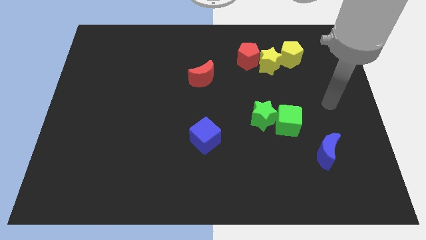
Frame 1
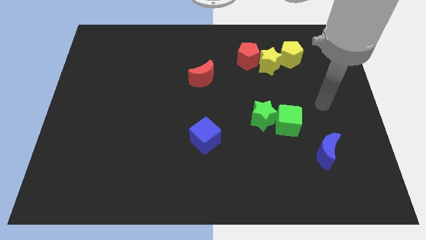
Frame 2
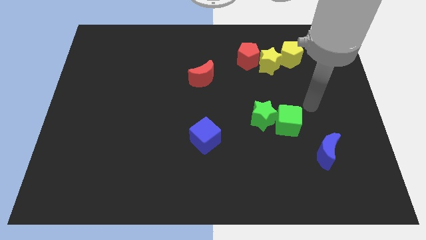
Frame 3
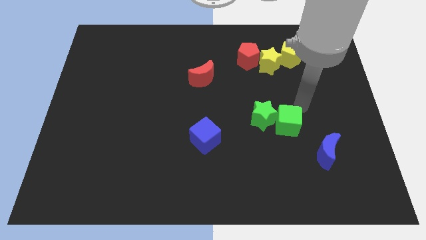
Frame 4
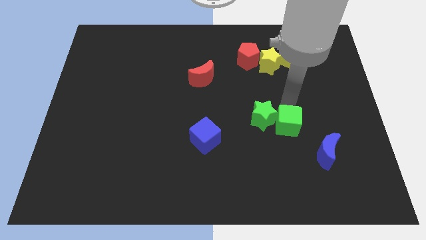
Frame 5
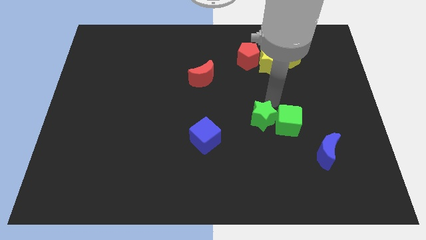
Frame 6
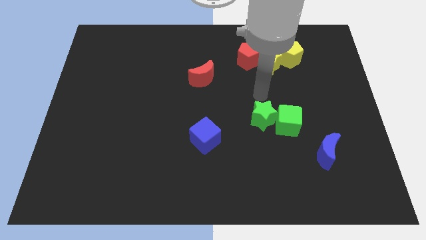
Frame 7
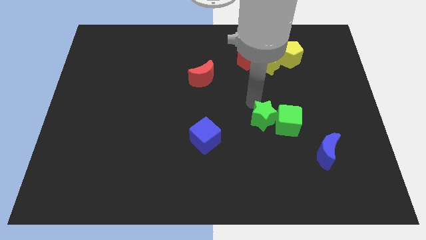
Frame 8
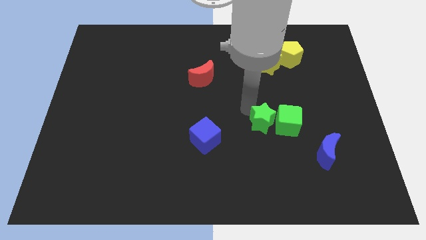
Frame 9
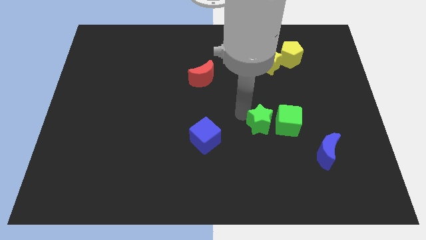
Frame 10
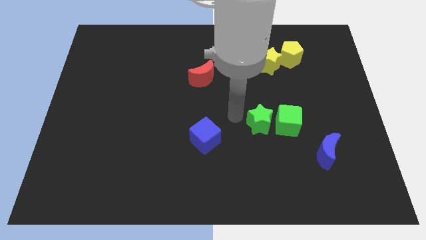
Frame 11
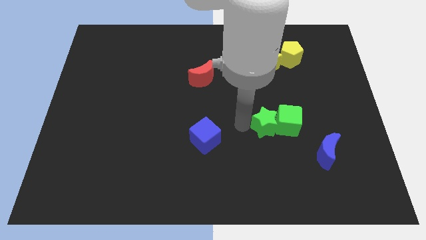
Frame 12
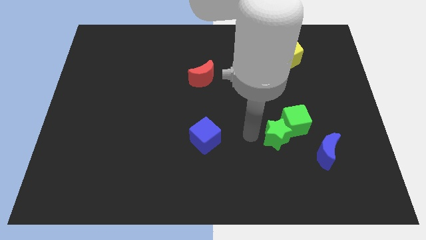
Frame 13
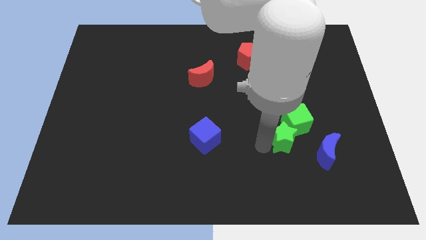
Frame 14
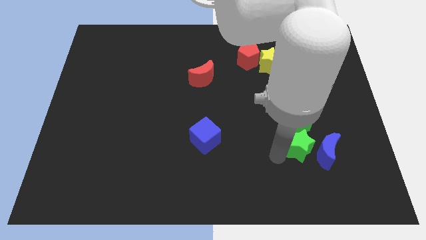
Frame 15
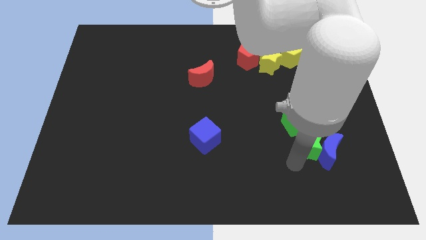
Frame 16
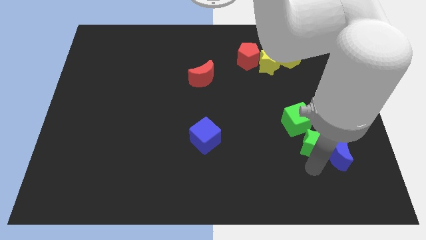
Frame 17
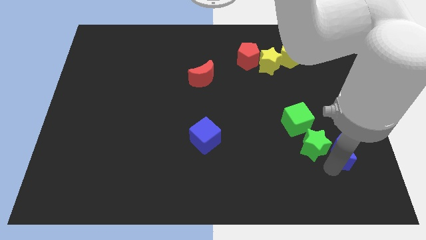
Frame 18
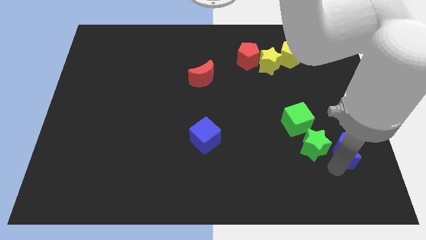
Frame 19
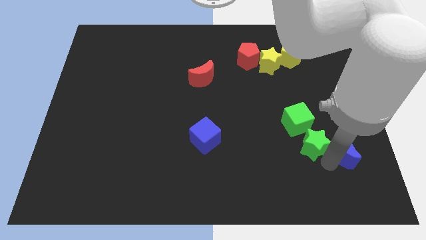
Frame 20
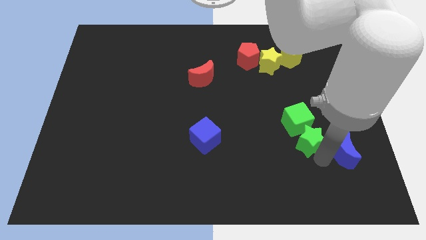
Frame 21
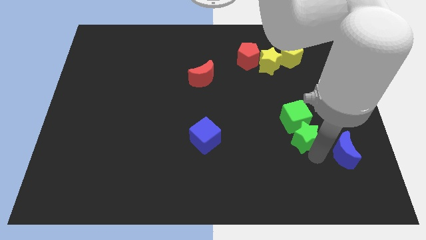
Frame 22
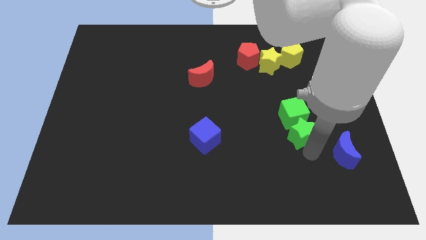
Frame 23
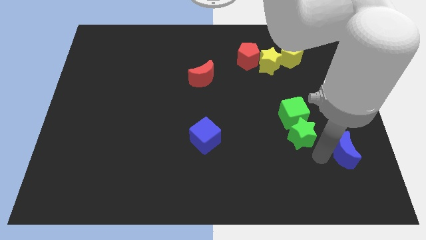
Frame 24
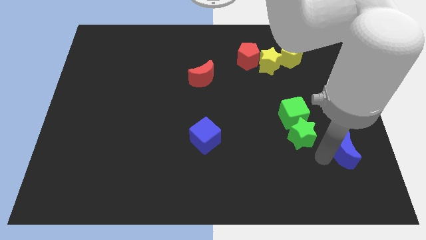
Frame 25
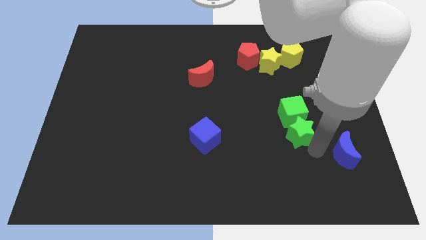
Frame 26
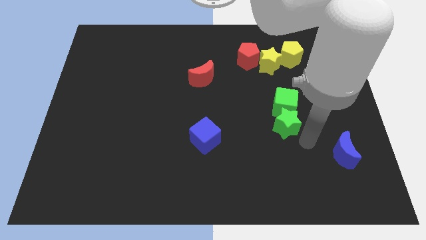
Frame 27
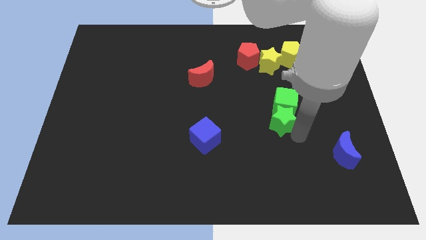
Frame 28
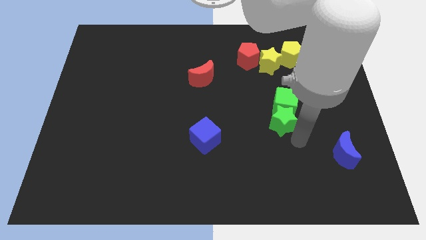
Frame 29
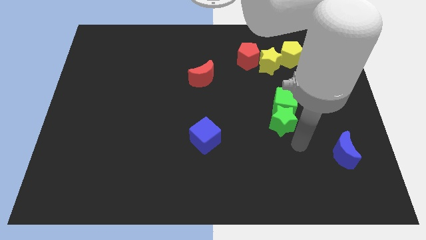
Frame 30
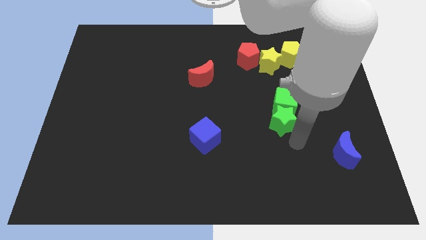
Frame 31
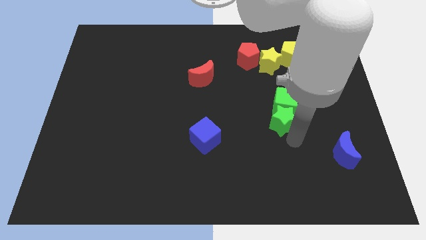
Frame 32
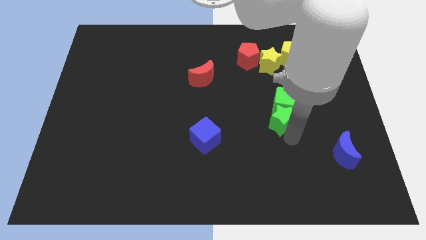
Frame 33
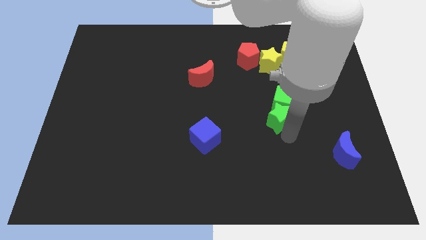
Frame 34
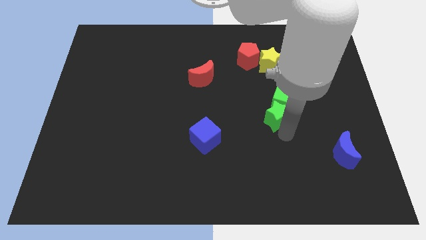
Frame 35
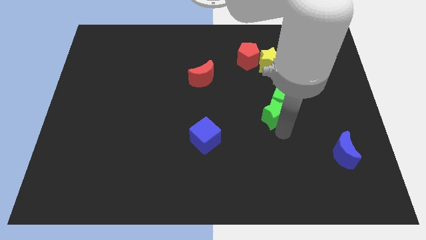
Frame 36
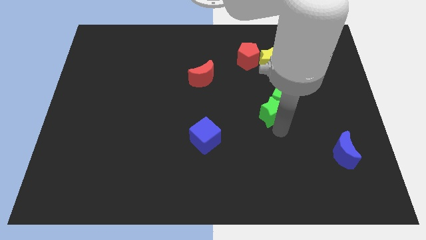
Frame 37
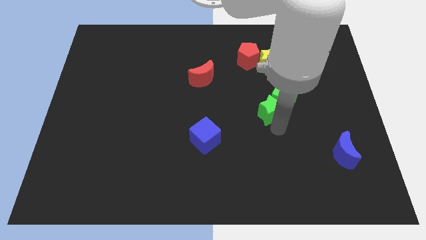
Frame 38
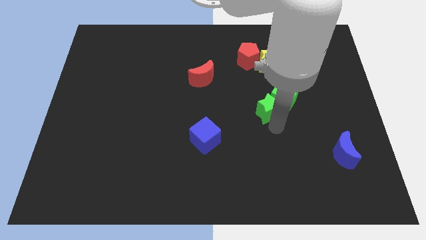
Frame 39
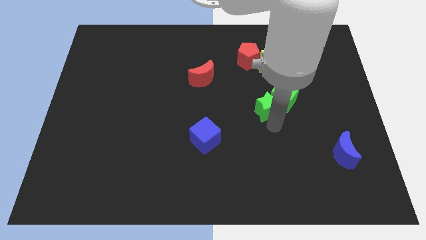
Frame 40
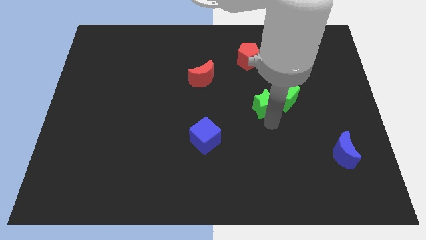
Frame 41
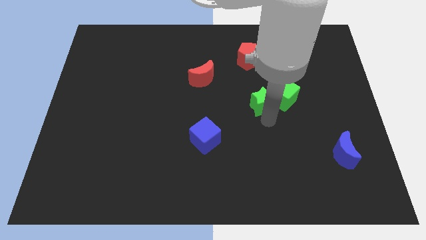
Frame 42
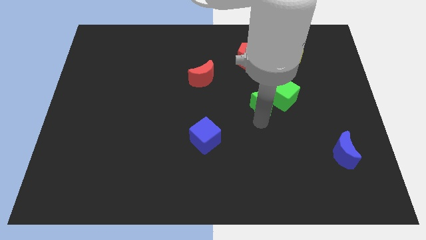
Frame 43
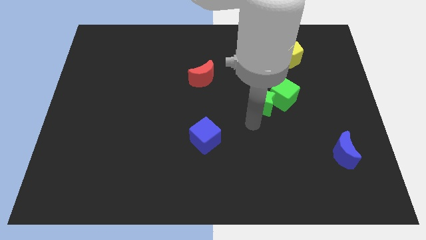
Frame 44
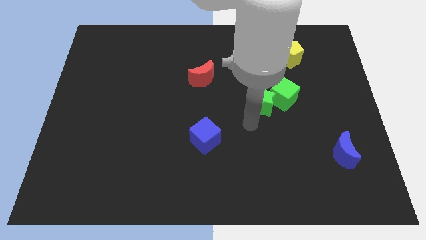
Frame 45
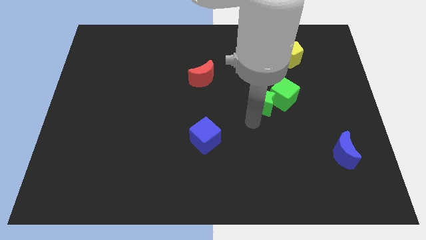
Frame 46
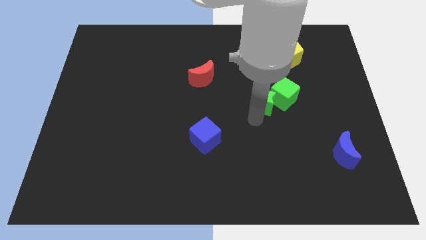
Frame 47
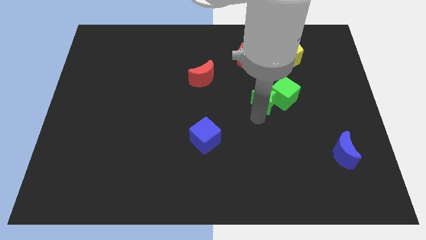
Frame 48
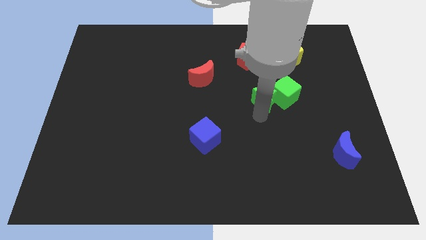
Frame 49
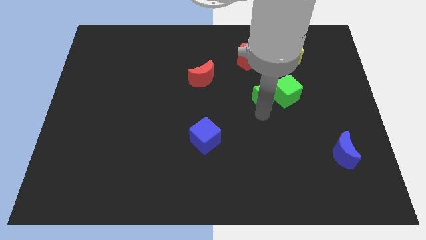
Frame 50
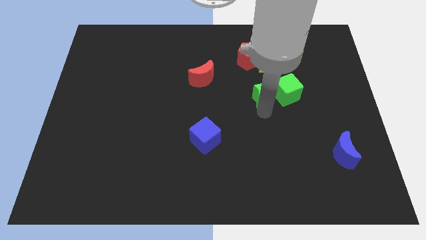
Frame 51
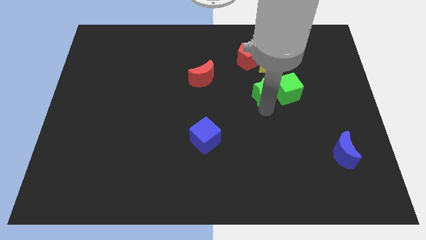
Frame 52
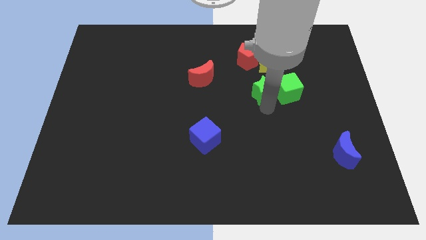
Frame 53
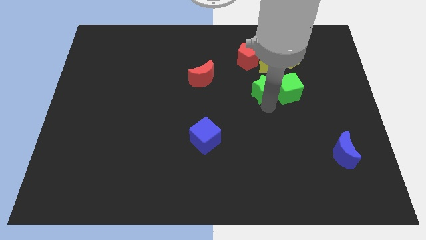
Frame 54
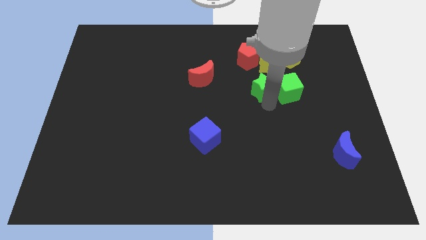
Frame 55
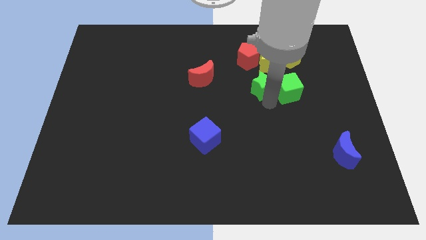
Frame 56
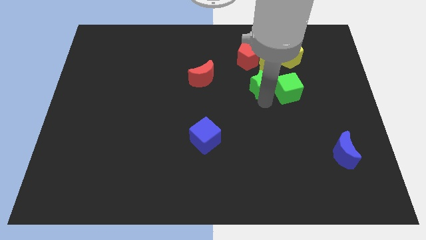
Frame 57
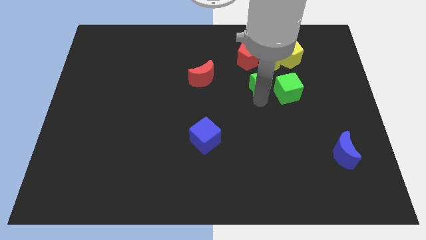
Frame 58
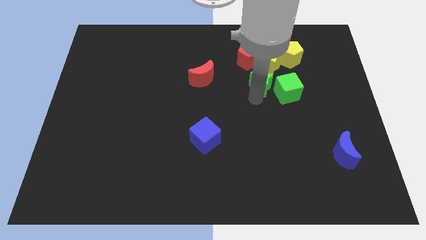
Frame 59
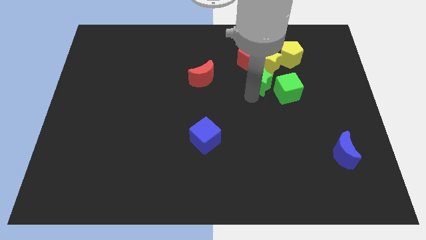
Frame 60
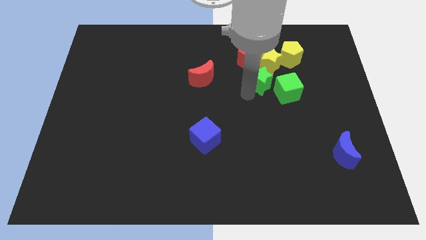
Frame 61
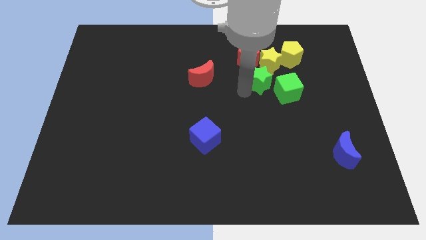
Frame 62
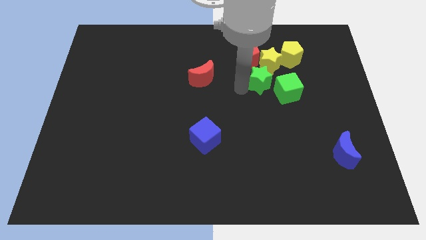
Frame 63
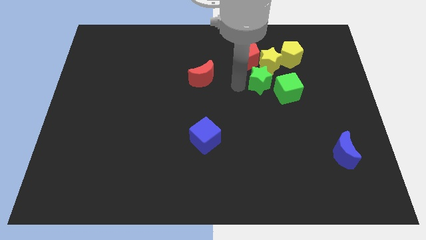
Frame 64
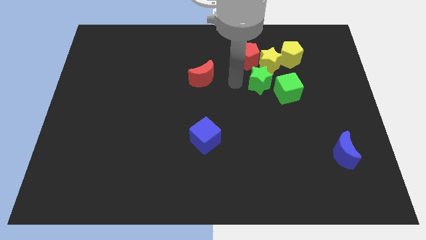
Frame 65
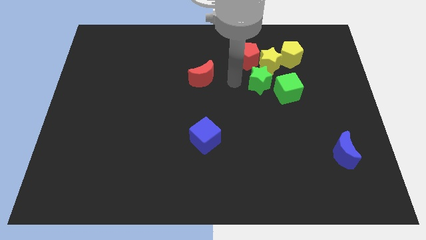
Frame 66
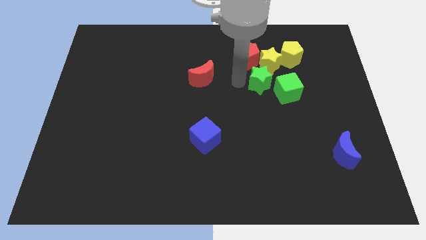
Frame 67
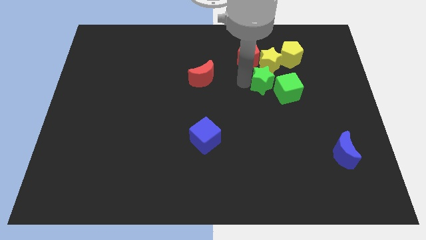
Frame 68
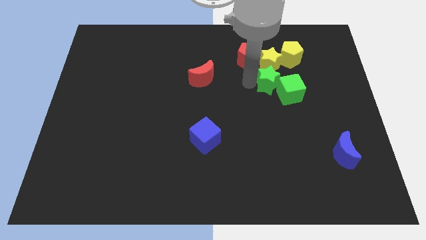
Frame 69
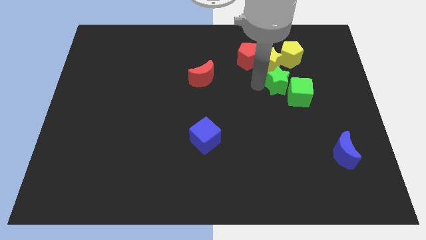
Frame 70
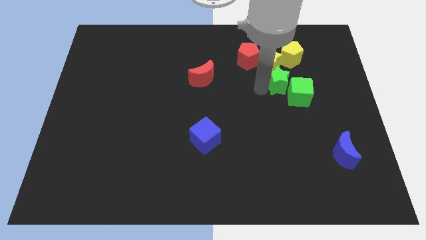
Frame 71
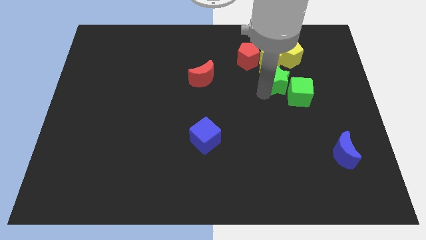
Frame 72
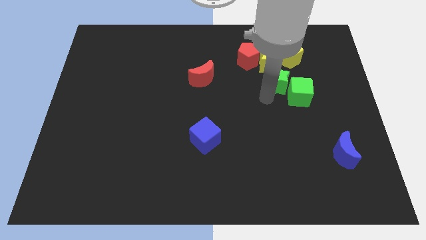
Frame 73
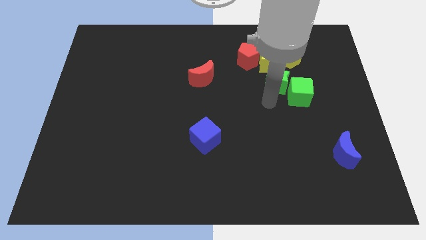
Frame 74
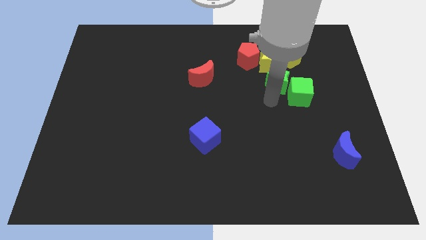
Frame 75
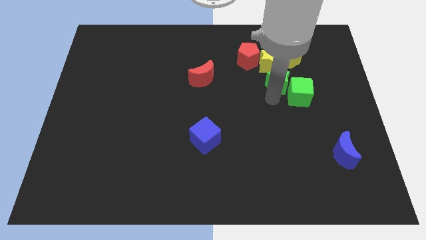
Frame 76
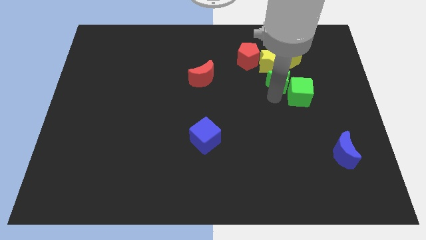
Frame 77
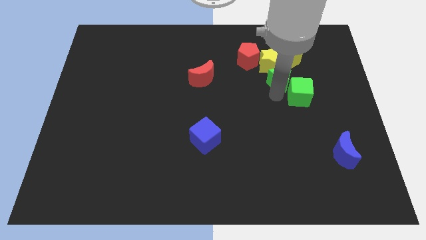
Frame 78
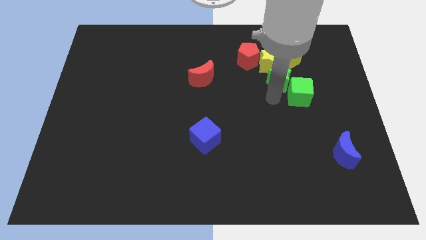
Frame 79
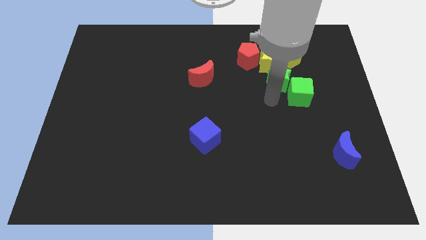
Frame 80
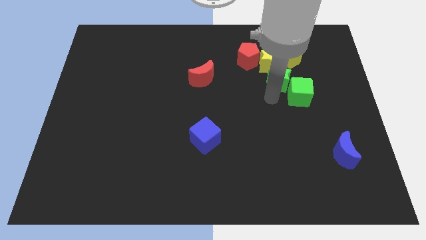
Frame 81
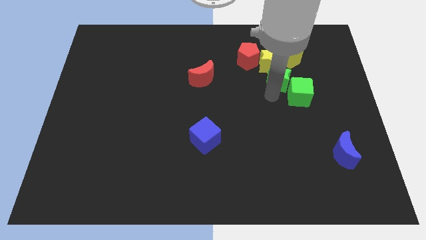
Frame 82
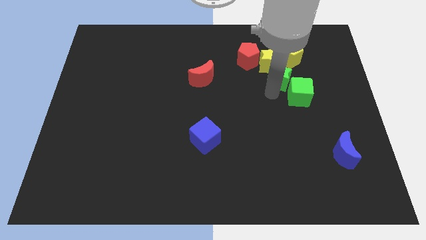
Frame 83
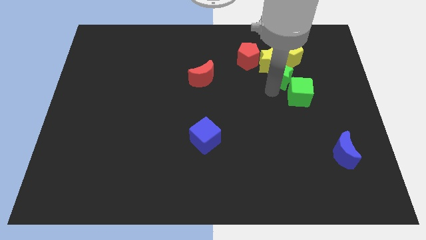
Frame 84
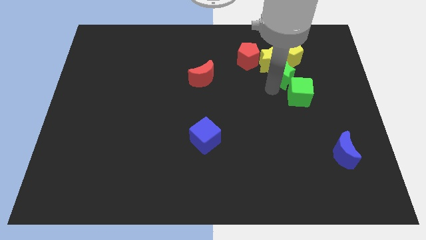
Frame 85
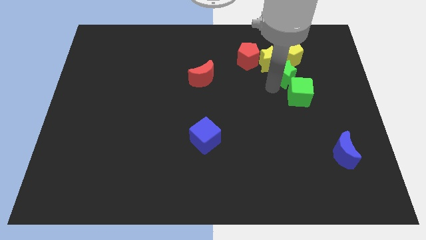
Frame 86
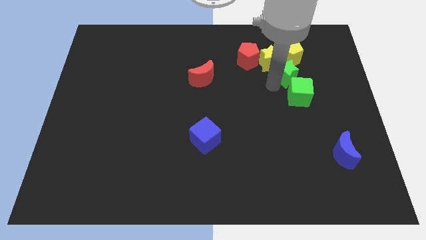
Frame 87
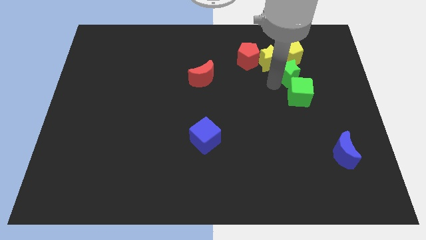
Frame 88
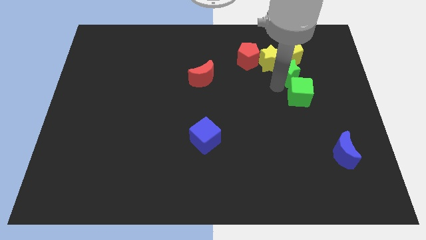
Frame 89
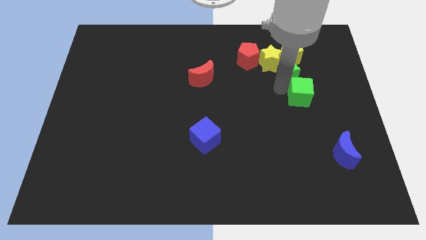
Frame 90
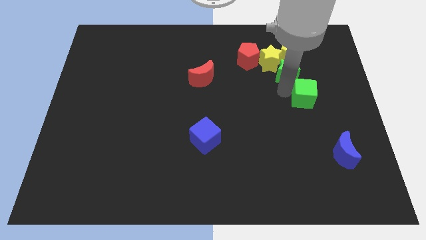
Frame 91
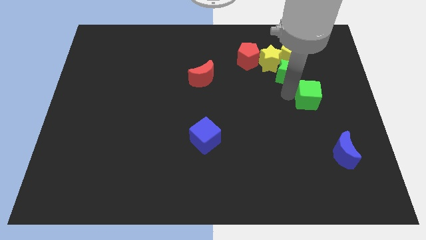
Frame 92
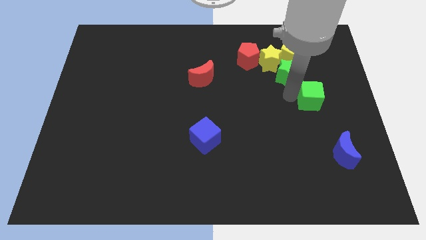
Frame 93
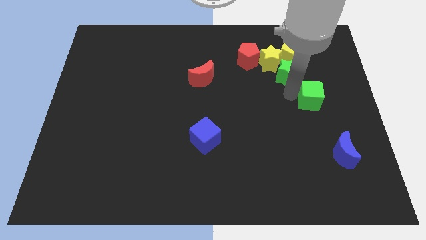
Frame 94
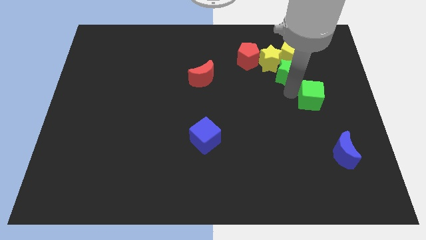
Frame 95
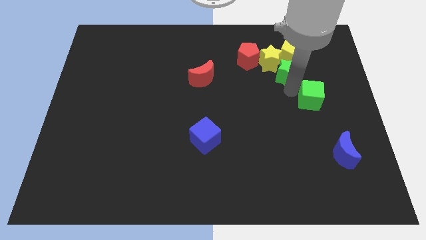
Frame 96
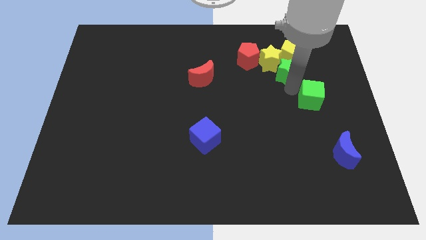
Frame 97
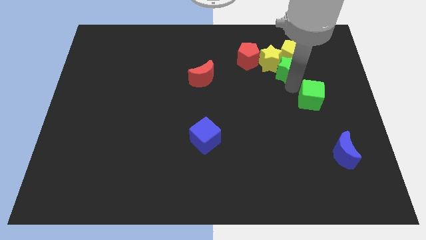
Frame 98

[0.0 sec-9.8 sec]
put the green star next to the yellow pentagon
